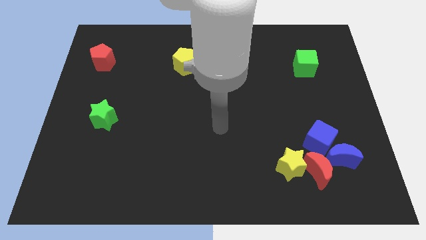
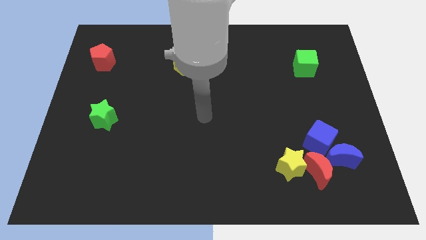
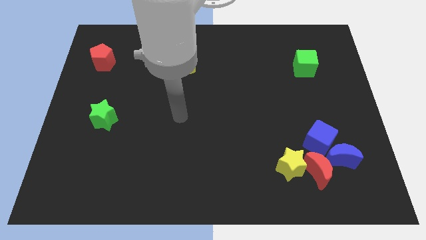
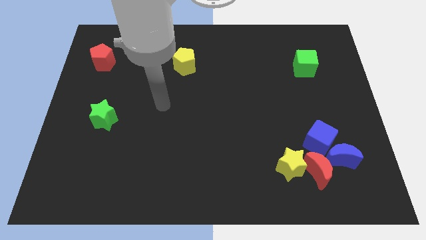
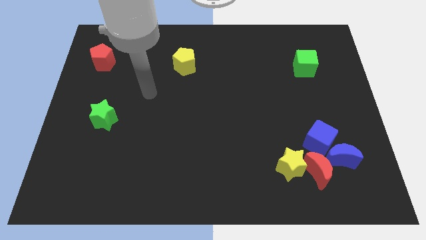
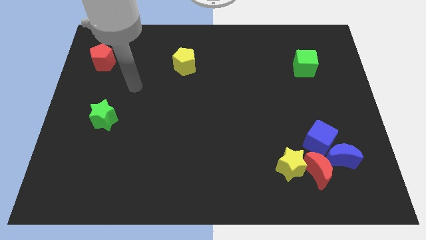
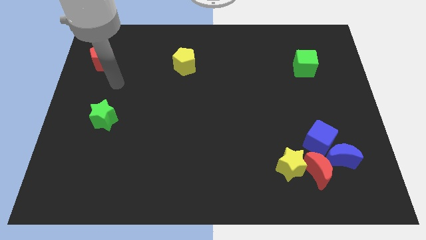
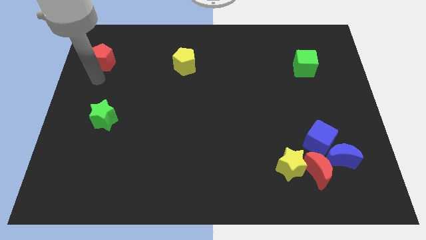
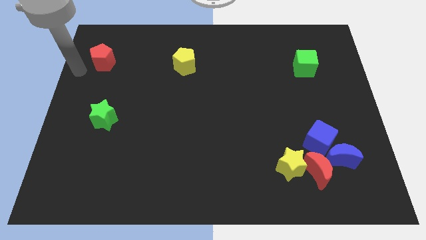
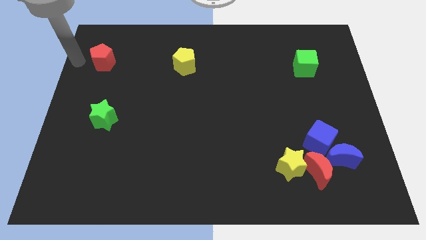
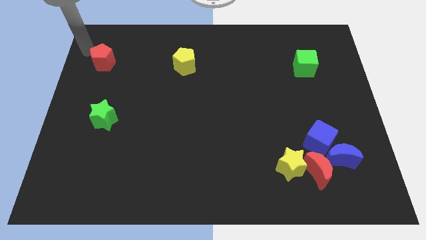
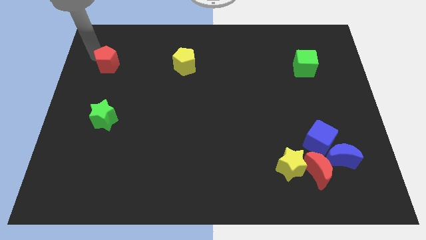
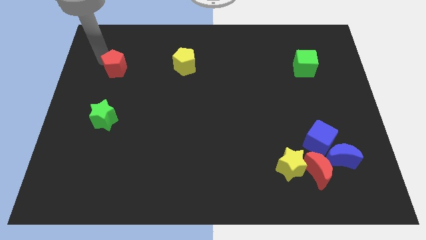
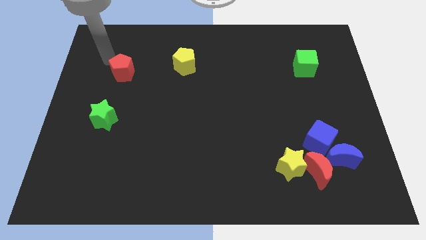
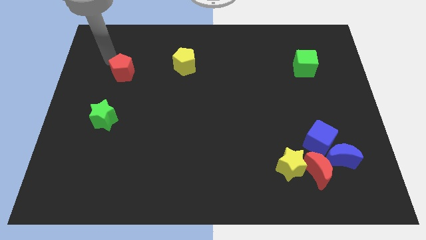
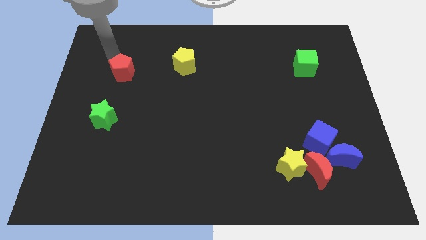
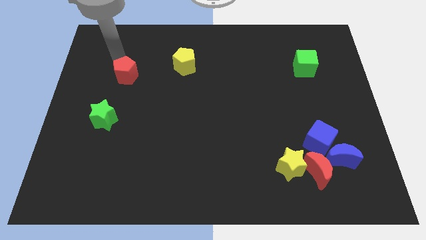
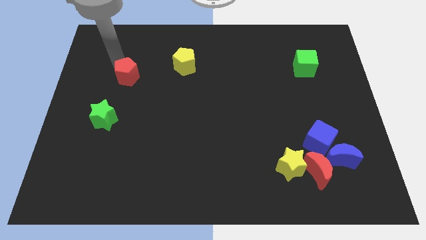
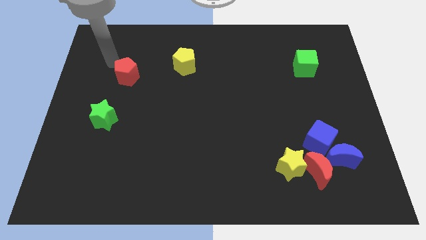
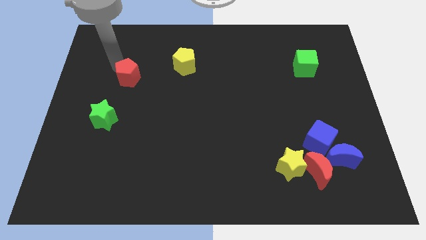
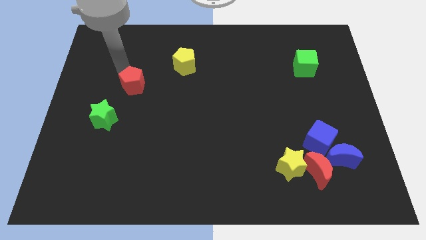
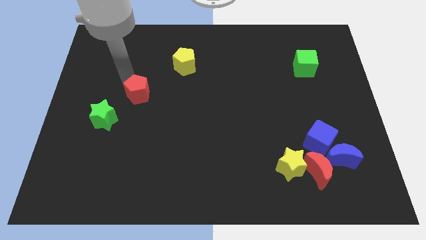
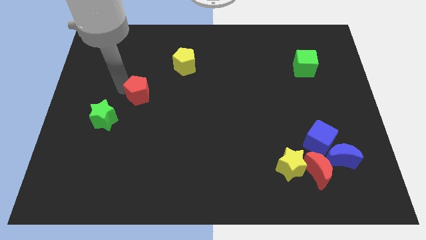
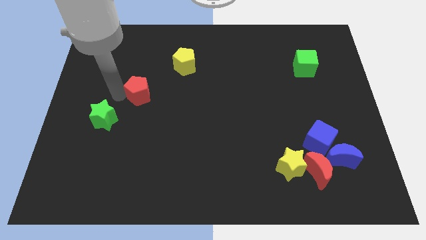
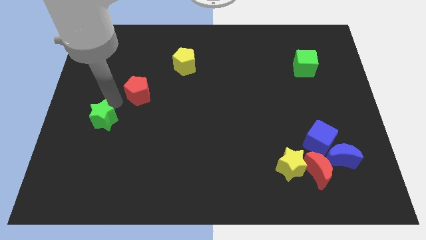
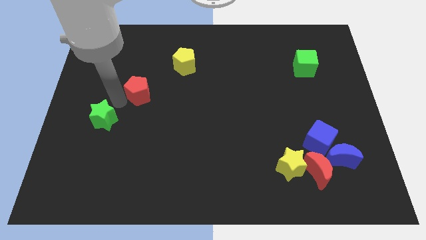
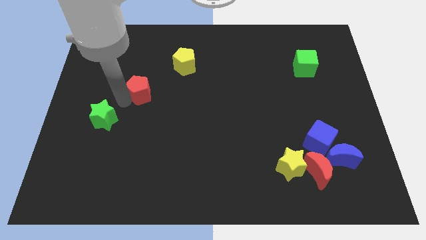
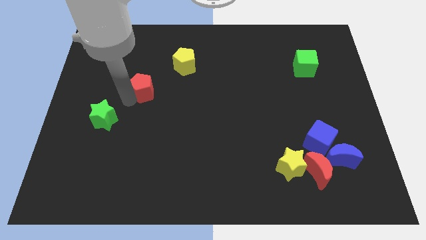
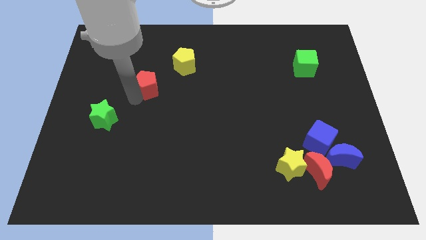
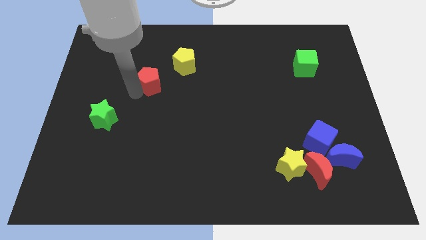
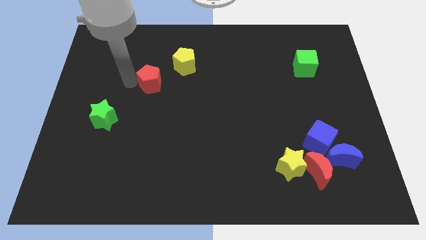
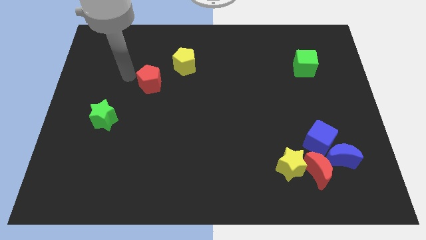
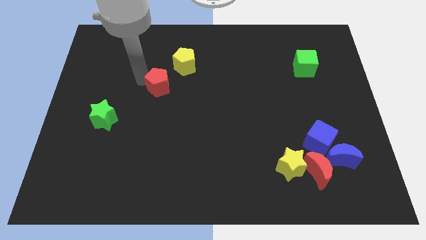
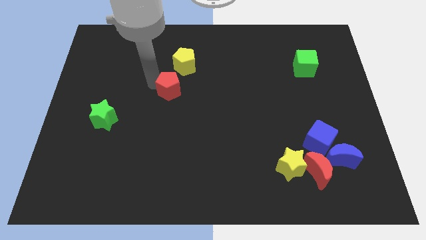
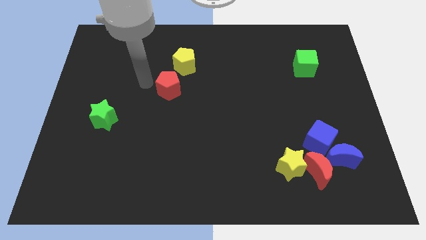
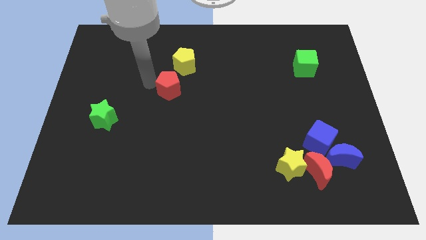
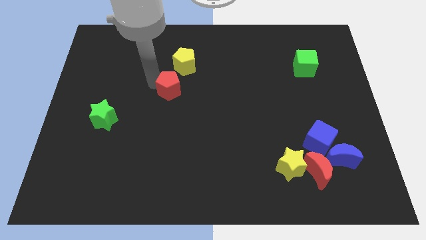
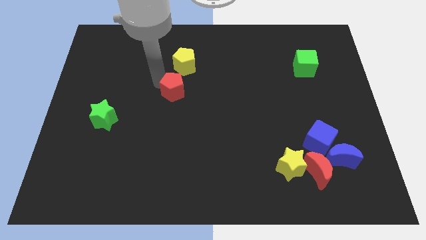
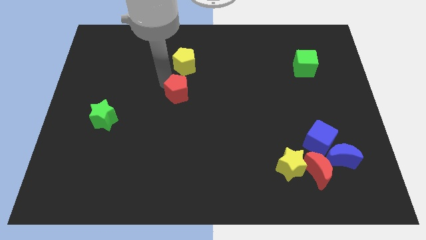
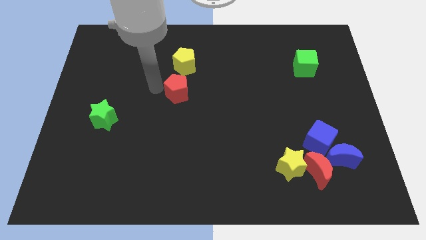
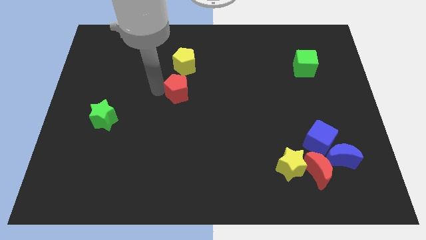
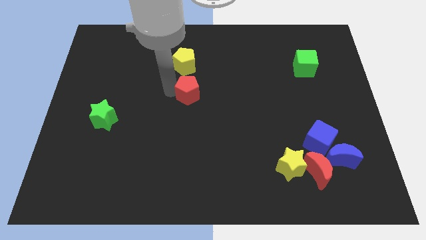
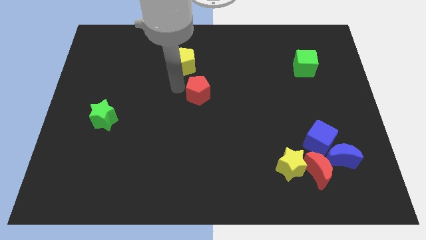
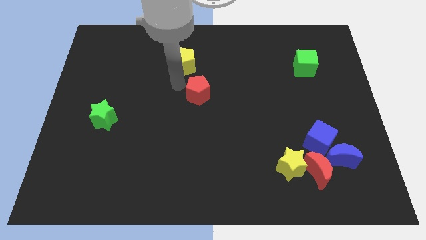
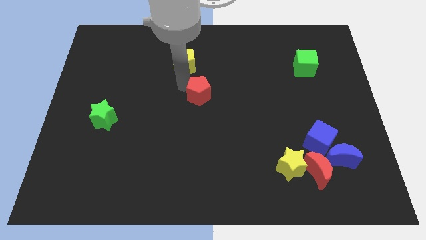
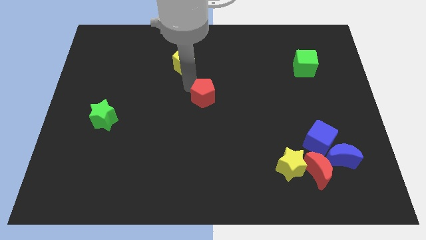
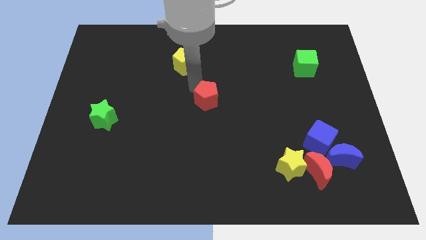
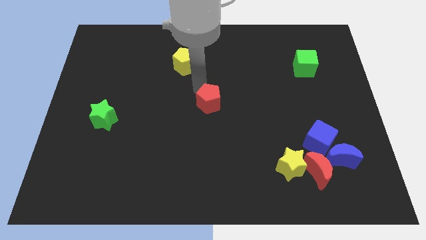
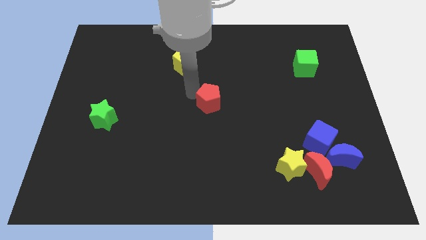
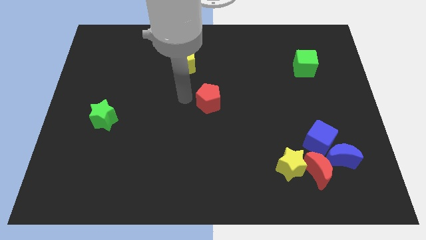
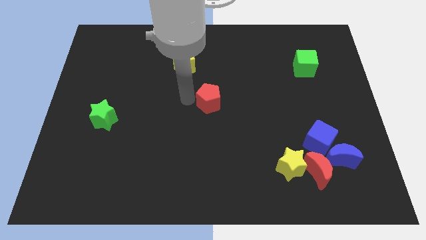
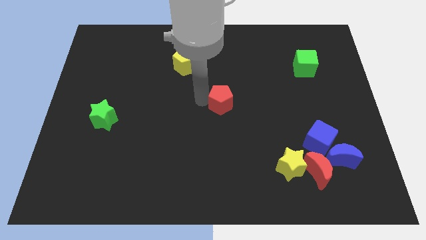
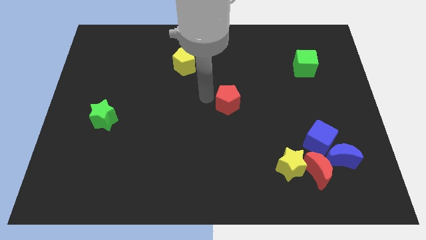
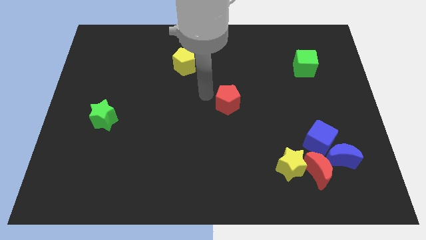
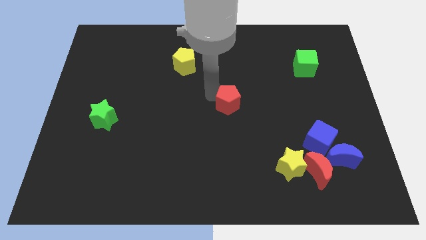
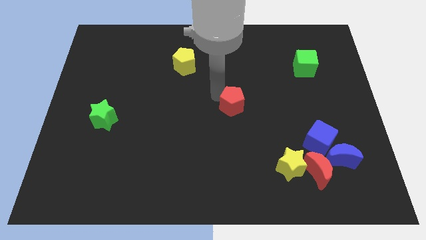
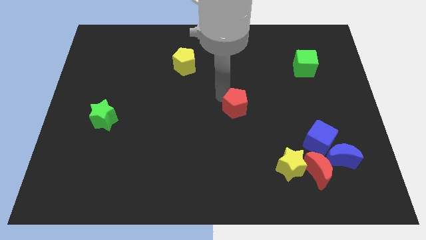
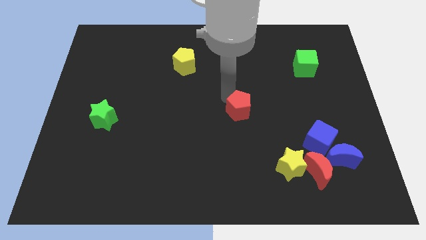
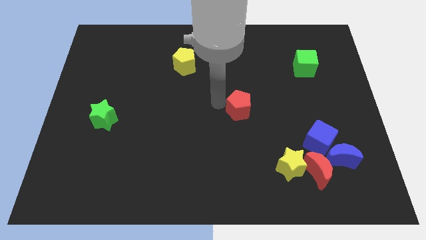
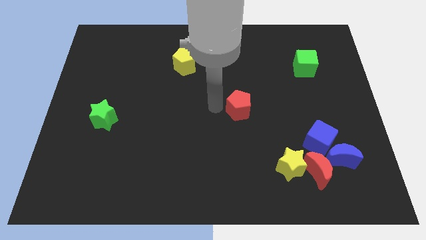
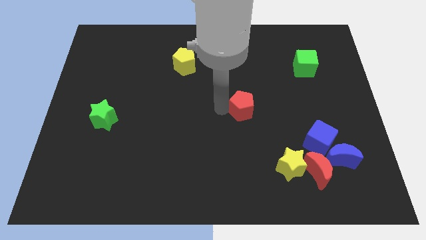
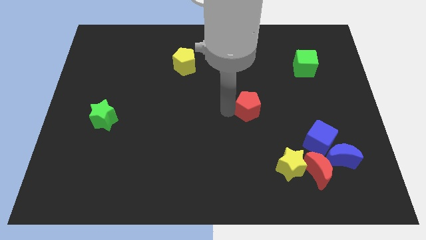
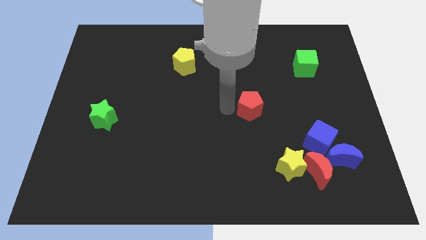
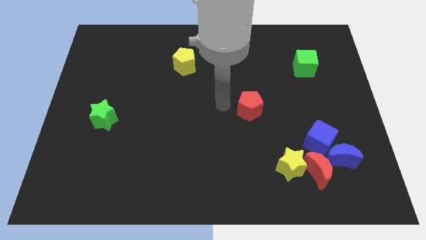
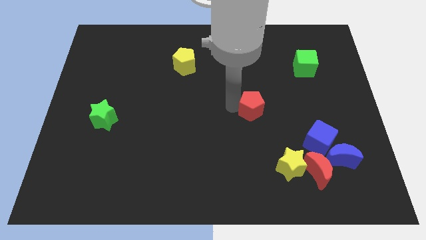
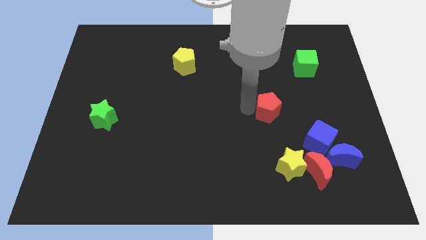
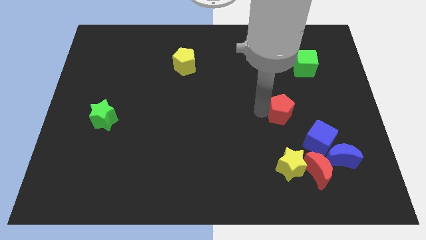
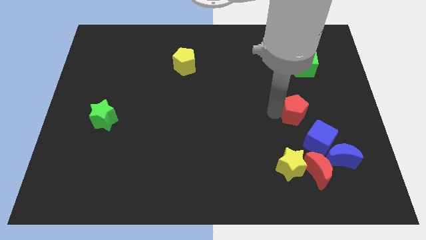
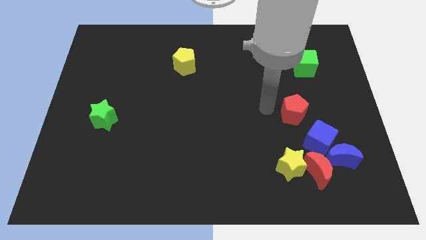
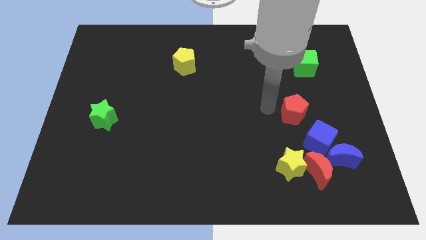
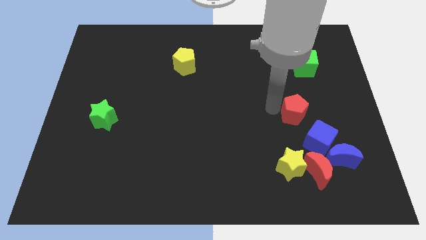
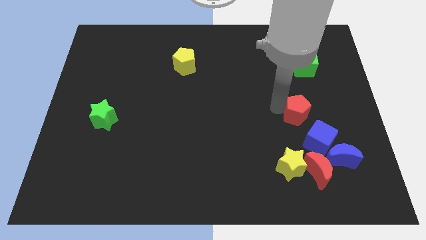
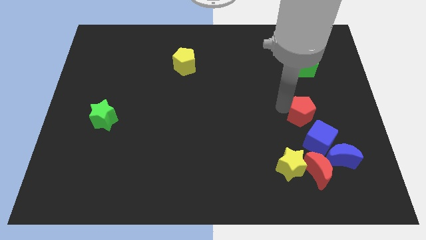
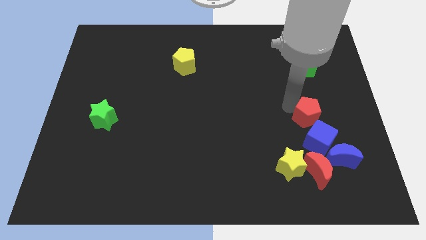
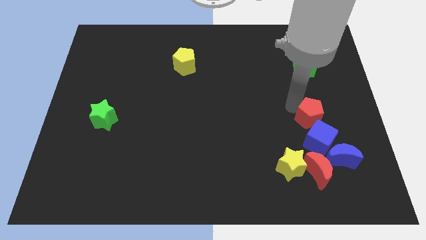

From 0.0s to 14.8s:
push the red pentagon above the blue moon
